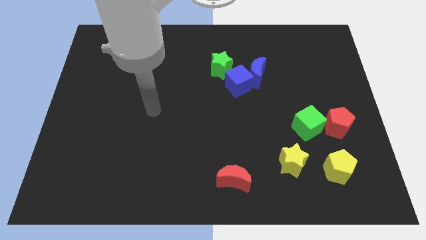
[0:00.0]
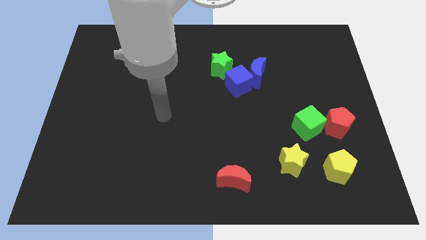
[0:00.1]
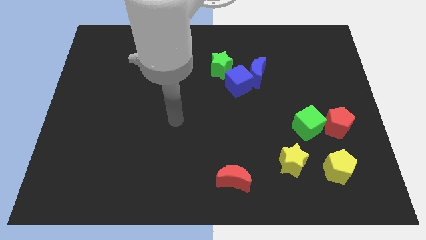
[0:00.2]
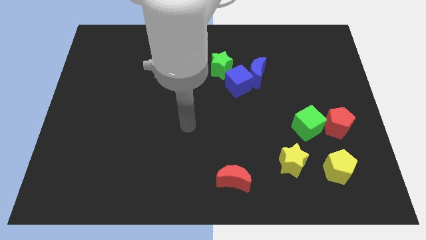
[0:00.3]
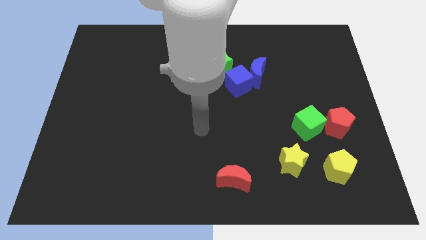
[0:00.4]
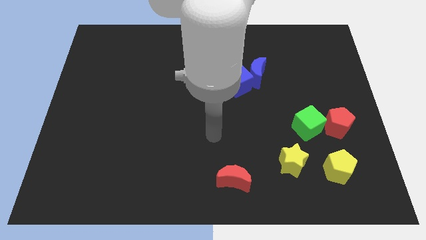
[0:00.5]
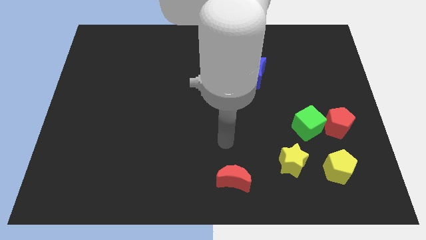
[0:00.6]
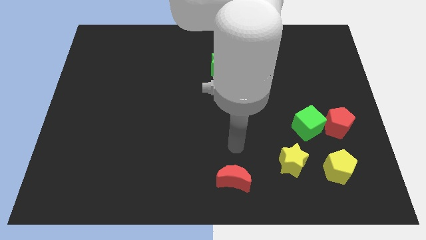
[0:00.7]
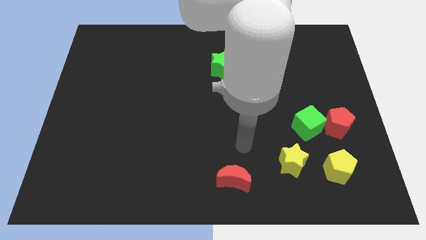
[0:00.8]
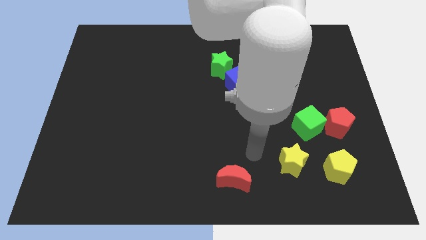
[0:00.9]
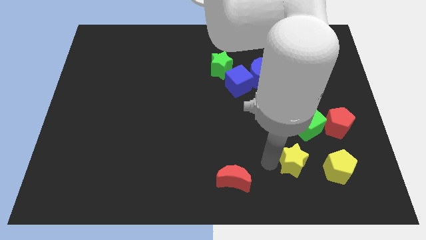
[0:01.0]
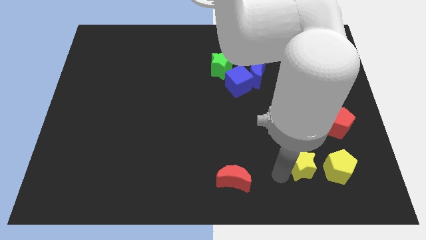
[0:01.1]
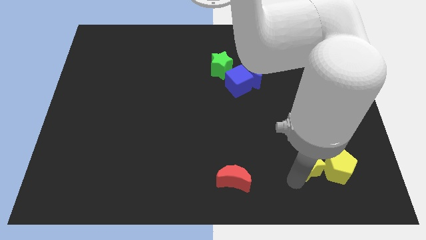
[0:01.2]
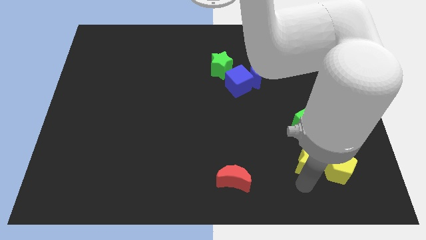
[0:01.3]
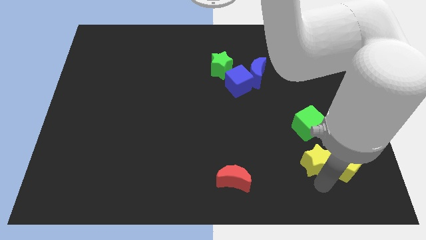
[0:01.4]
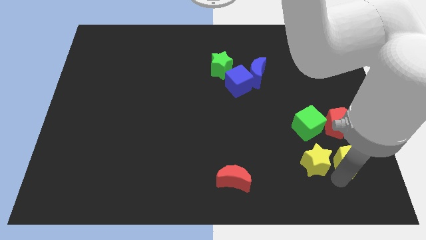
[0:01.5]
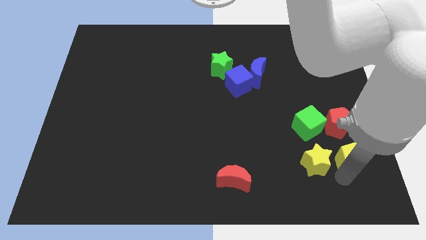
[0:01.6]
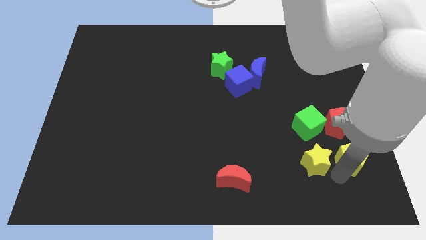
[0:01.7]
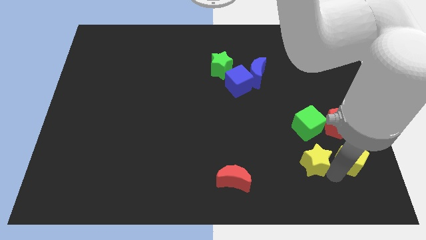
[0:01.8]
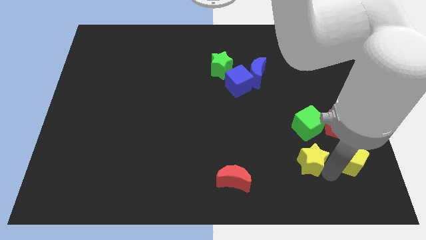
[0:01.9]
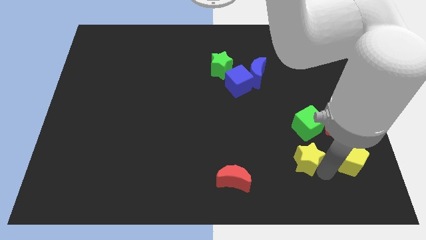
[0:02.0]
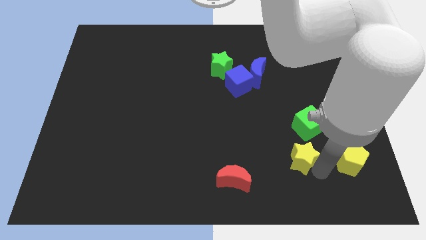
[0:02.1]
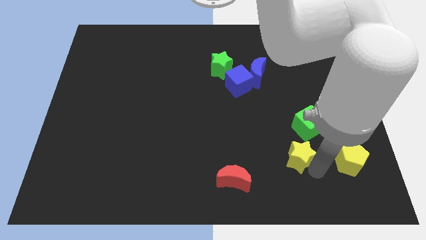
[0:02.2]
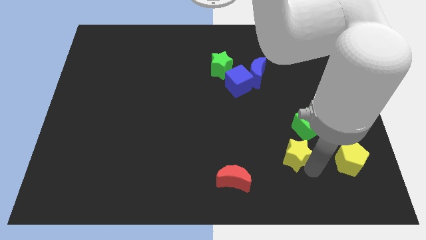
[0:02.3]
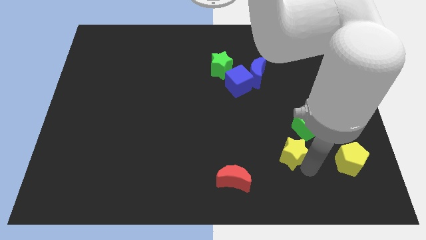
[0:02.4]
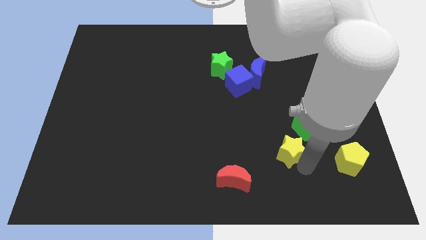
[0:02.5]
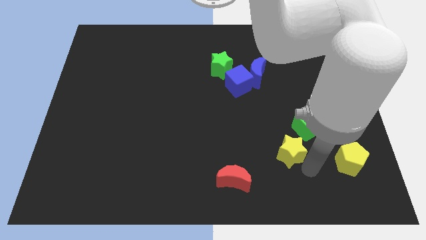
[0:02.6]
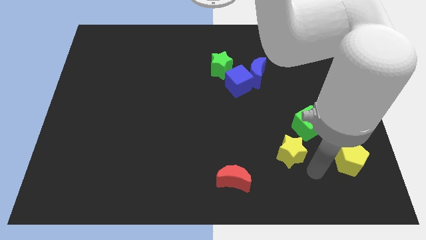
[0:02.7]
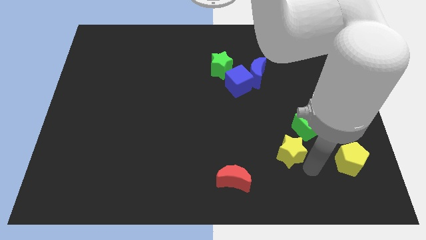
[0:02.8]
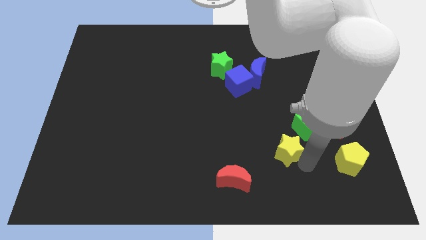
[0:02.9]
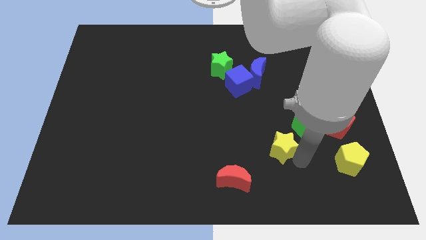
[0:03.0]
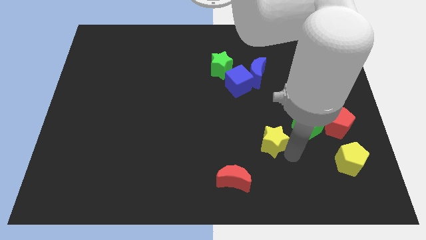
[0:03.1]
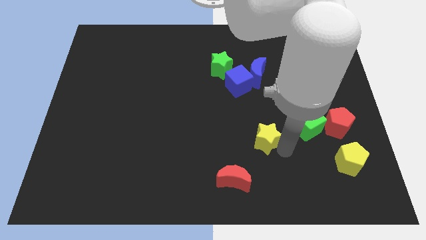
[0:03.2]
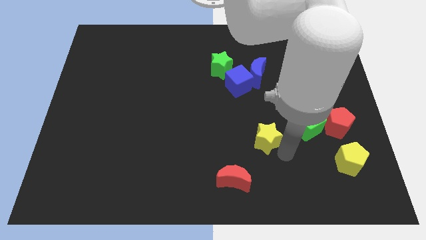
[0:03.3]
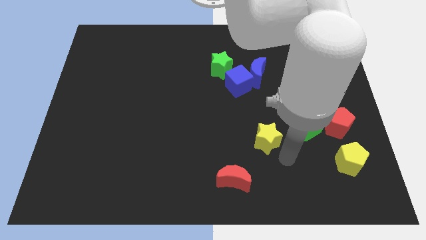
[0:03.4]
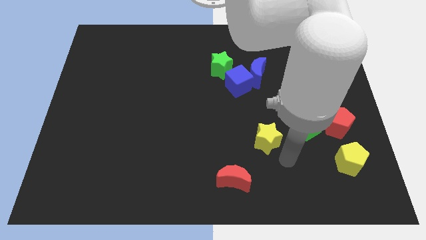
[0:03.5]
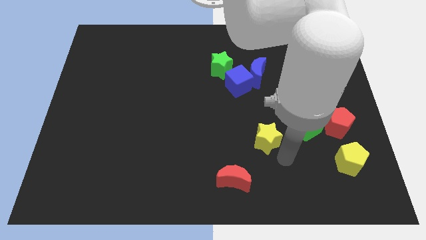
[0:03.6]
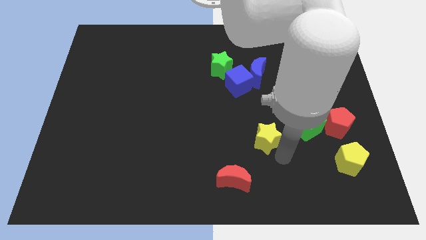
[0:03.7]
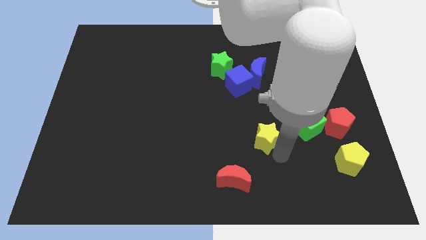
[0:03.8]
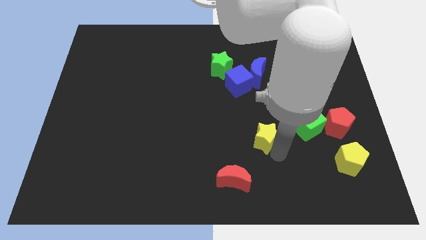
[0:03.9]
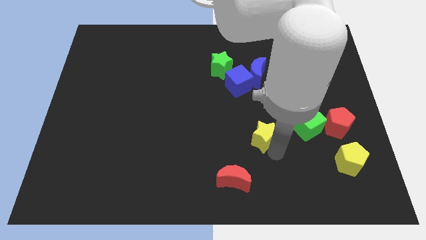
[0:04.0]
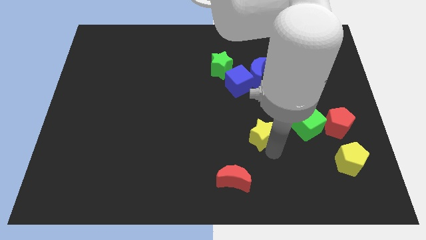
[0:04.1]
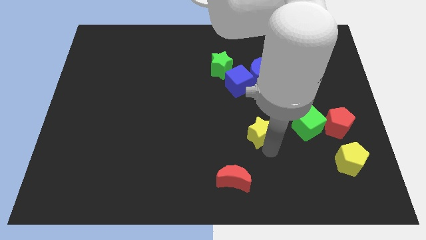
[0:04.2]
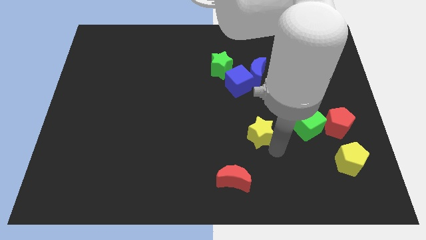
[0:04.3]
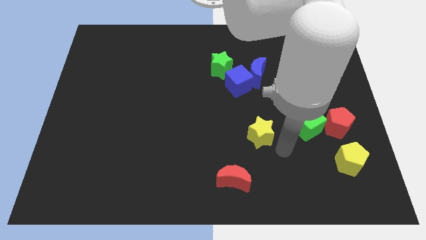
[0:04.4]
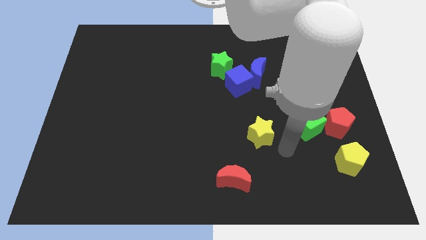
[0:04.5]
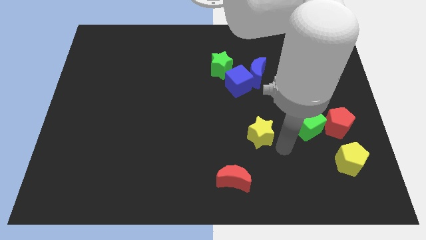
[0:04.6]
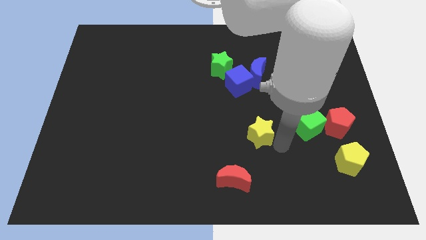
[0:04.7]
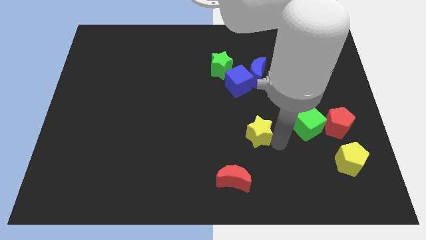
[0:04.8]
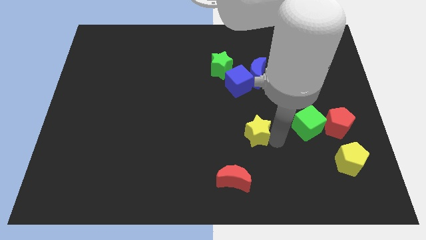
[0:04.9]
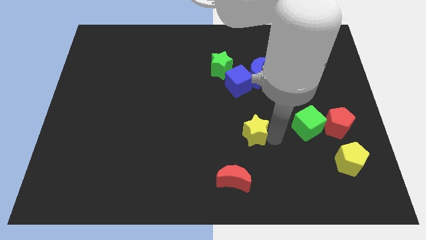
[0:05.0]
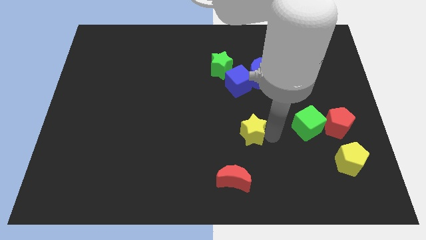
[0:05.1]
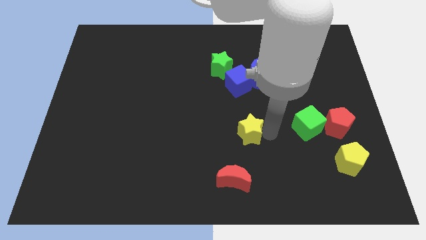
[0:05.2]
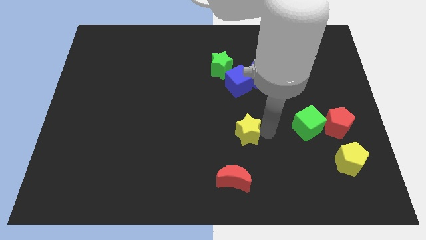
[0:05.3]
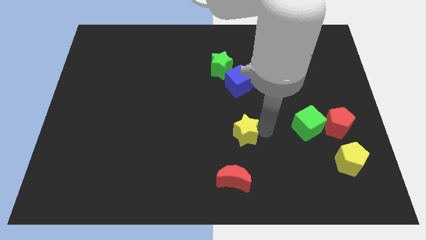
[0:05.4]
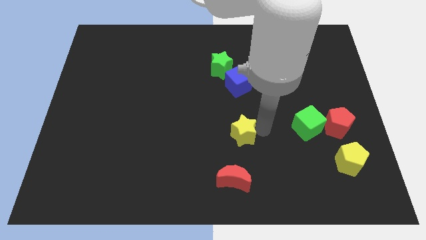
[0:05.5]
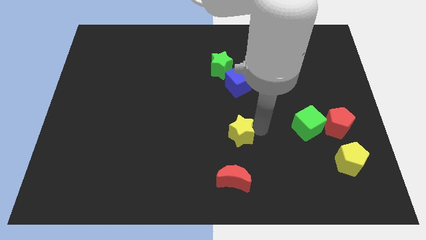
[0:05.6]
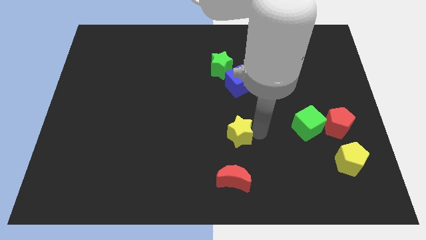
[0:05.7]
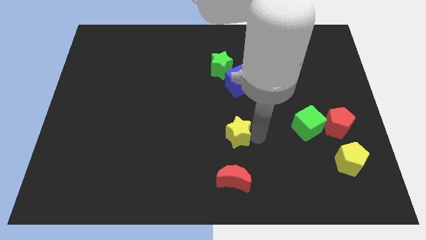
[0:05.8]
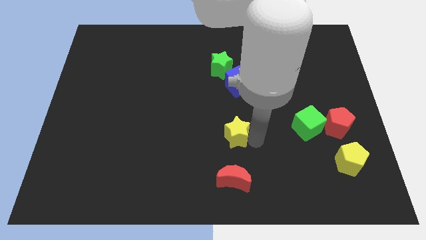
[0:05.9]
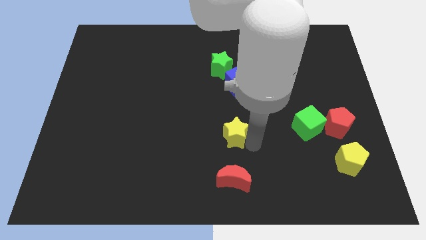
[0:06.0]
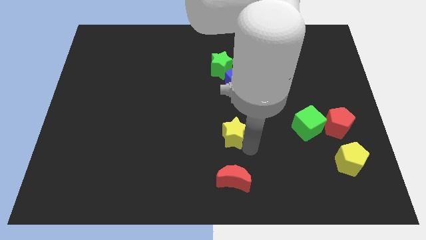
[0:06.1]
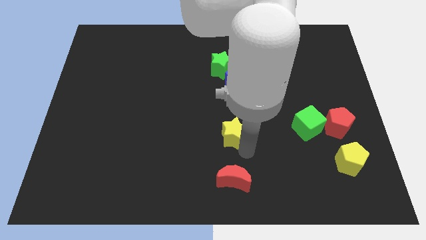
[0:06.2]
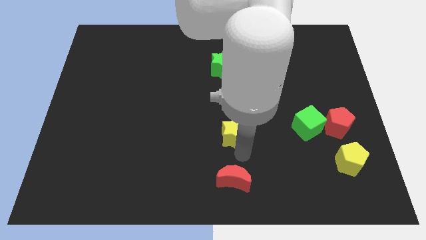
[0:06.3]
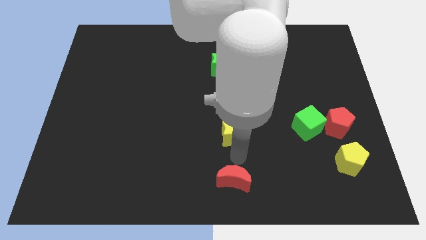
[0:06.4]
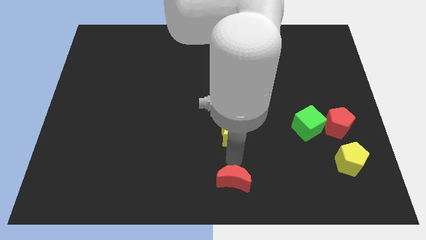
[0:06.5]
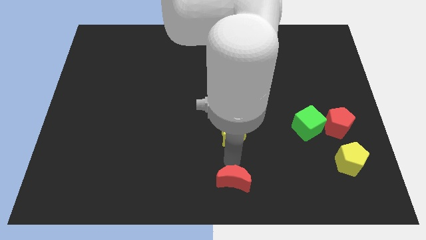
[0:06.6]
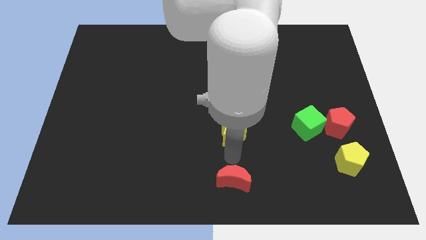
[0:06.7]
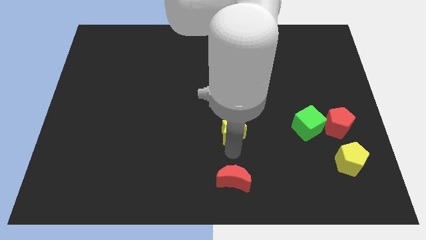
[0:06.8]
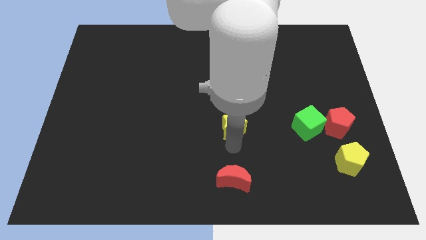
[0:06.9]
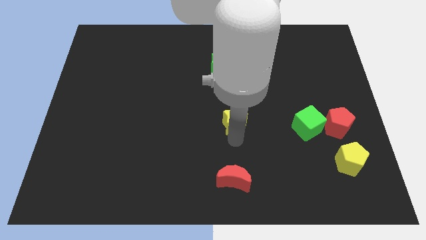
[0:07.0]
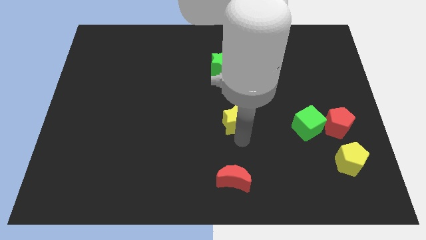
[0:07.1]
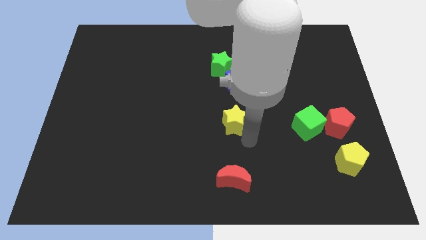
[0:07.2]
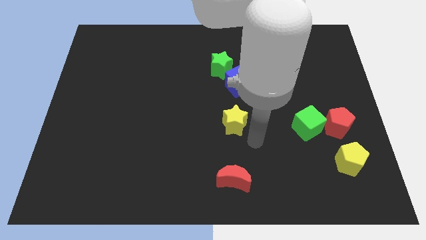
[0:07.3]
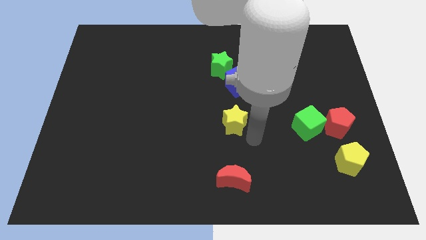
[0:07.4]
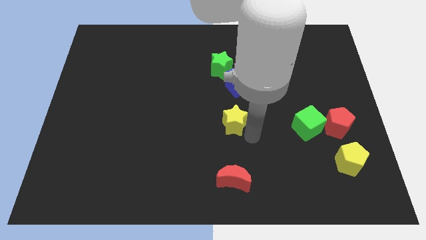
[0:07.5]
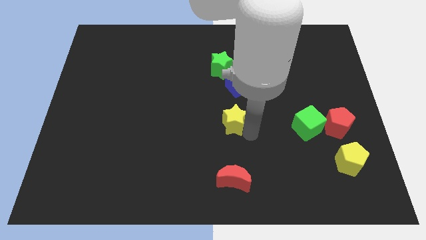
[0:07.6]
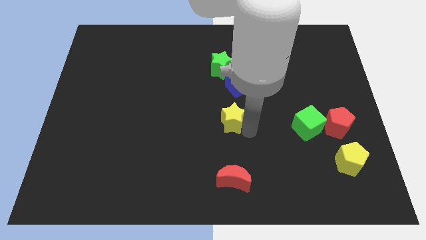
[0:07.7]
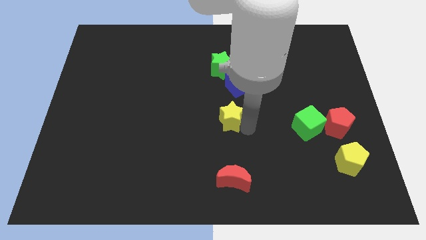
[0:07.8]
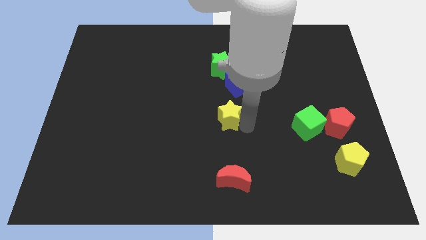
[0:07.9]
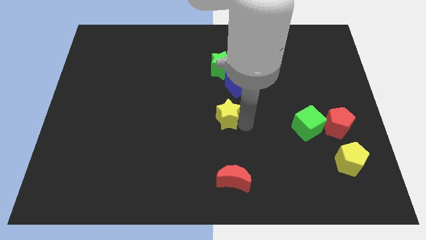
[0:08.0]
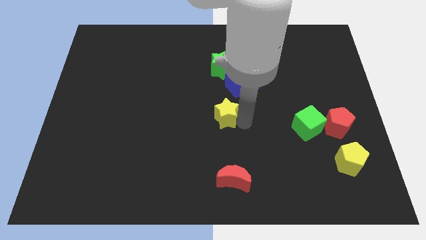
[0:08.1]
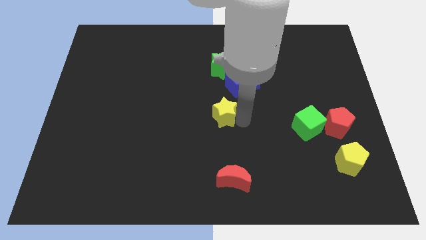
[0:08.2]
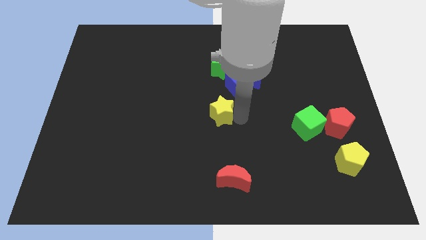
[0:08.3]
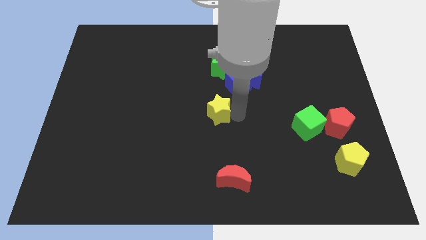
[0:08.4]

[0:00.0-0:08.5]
push the yellow star up and to the left diagonally
